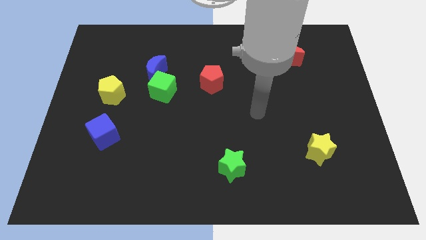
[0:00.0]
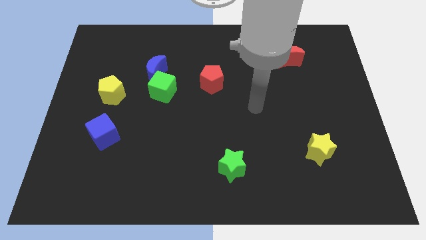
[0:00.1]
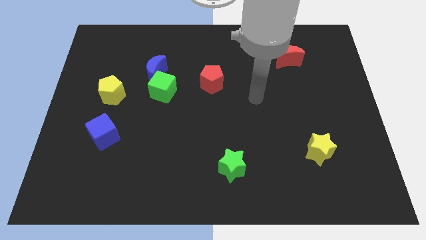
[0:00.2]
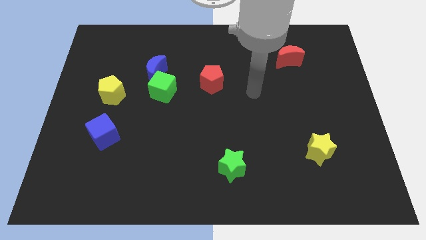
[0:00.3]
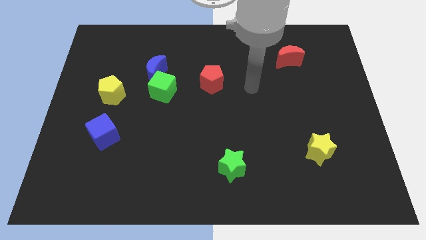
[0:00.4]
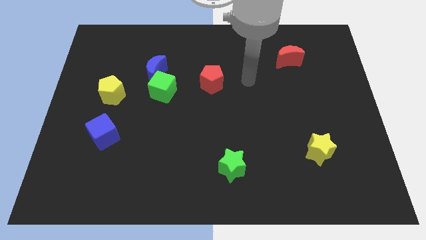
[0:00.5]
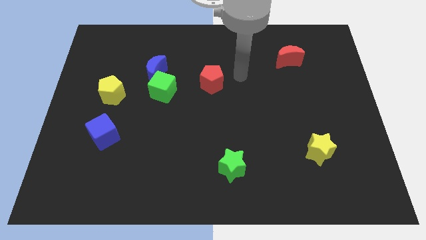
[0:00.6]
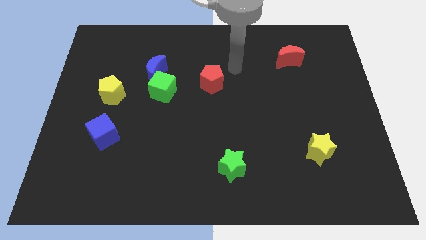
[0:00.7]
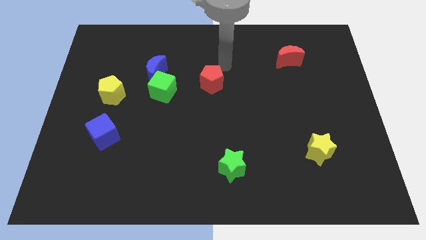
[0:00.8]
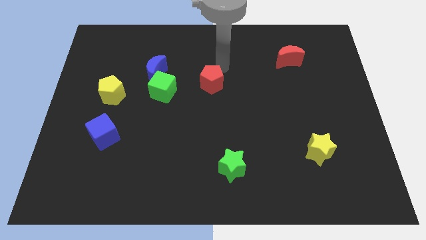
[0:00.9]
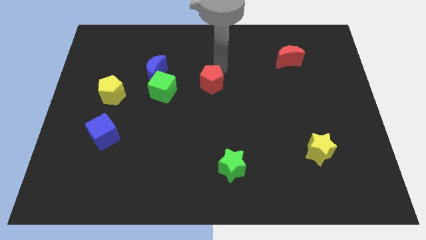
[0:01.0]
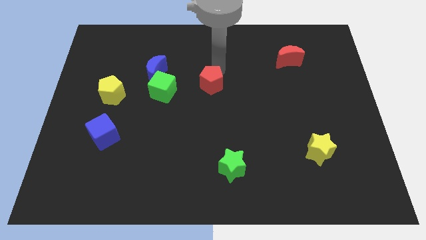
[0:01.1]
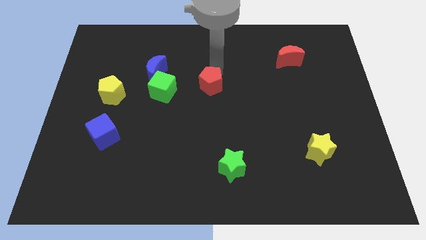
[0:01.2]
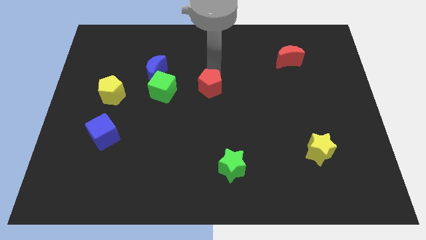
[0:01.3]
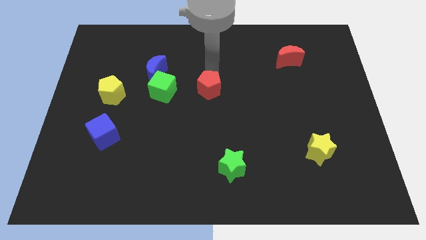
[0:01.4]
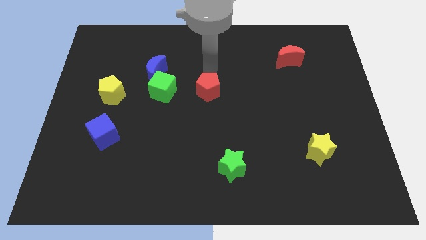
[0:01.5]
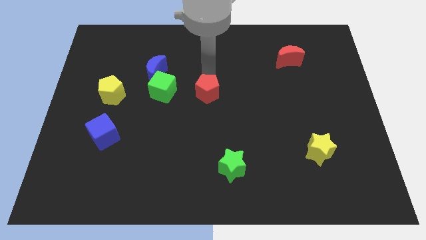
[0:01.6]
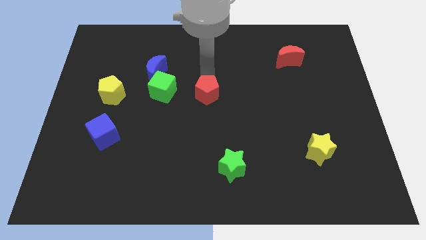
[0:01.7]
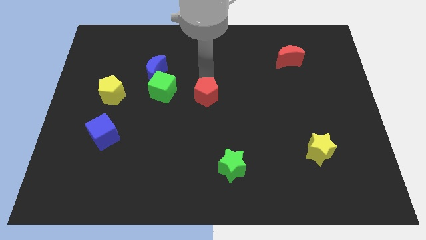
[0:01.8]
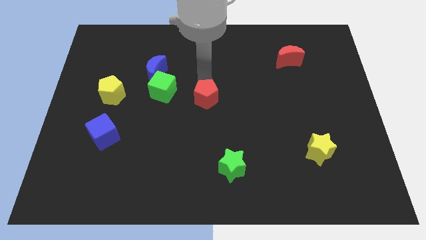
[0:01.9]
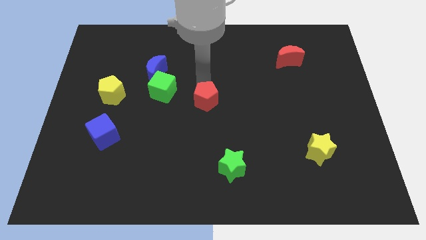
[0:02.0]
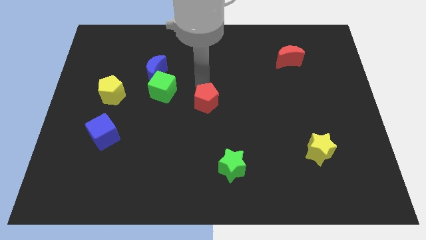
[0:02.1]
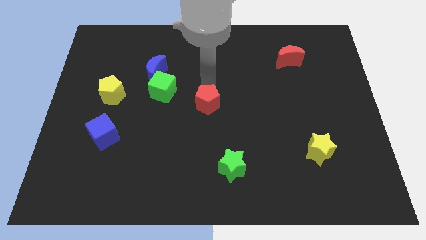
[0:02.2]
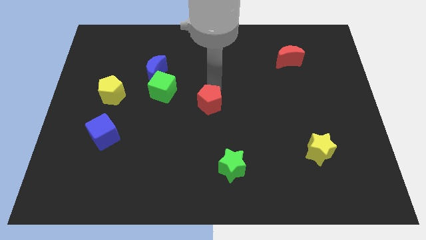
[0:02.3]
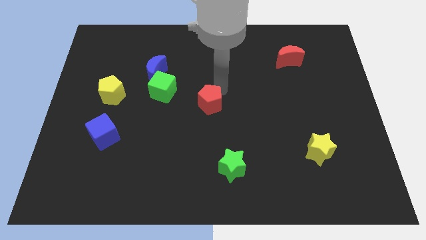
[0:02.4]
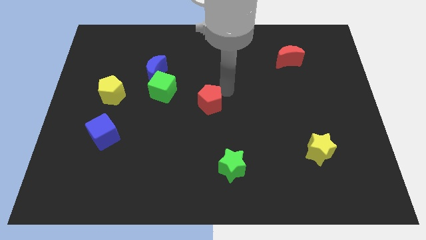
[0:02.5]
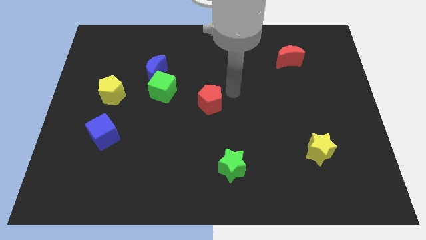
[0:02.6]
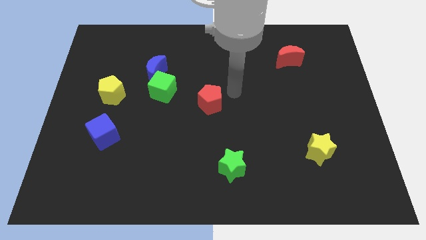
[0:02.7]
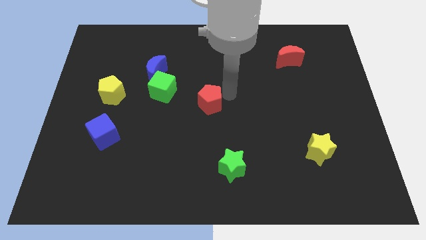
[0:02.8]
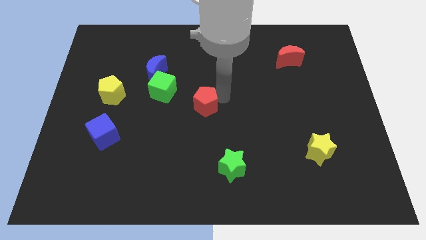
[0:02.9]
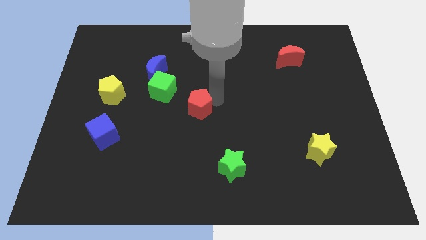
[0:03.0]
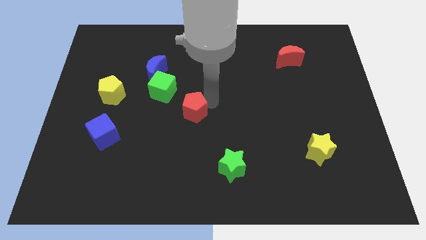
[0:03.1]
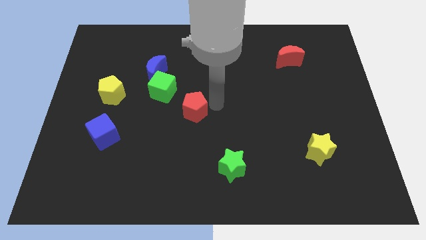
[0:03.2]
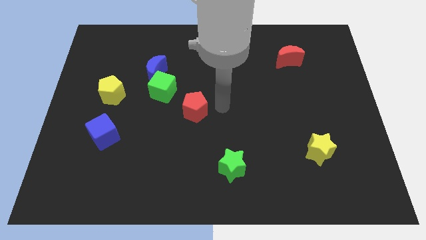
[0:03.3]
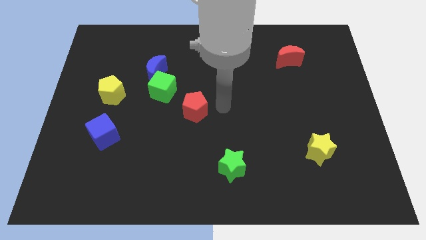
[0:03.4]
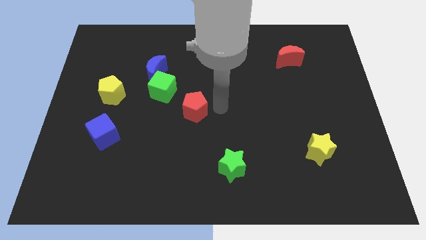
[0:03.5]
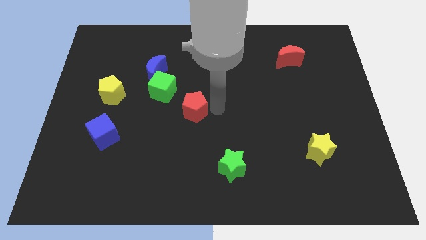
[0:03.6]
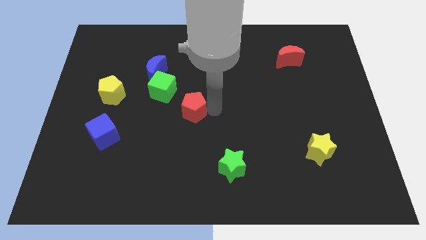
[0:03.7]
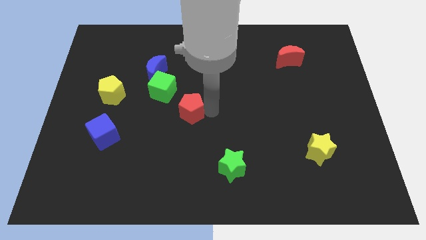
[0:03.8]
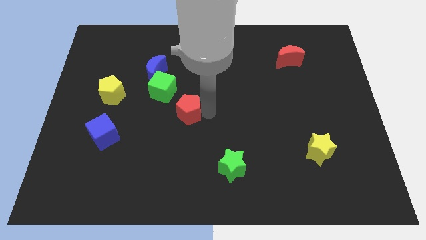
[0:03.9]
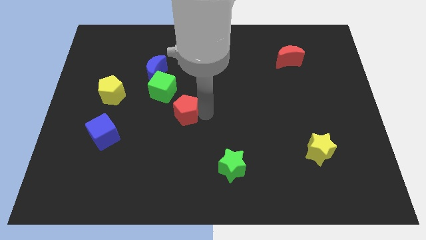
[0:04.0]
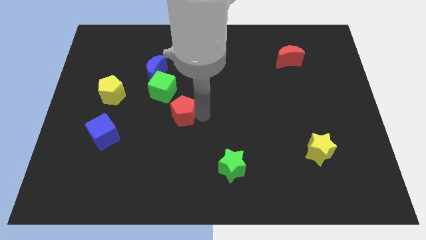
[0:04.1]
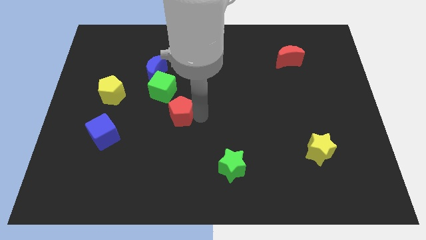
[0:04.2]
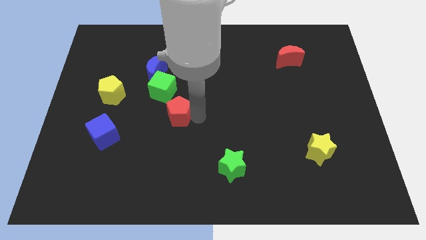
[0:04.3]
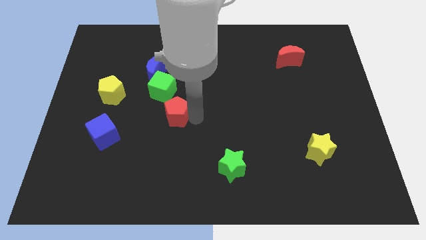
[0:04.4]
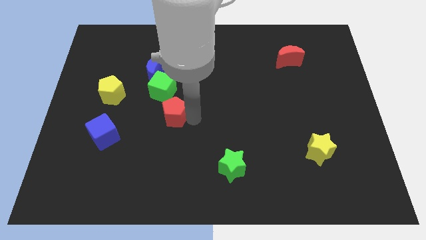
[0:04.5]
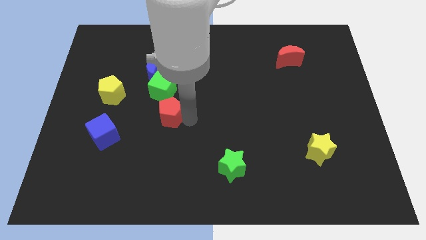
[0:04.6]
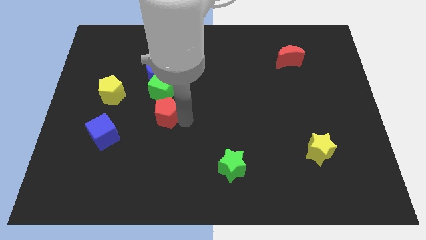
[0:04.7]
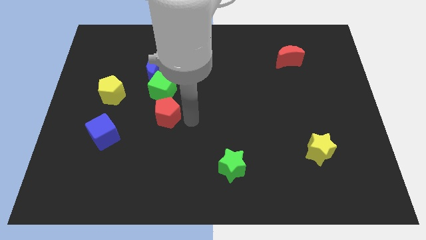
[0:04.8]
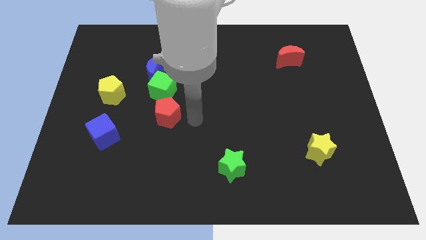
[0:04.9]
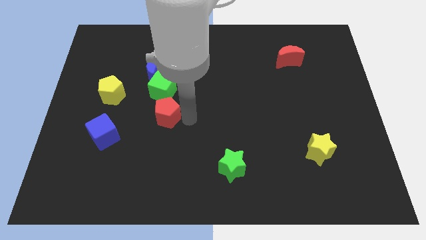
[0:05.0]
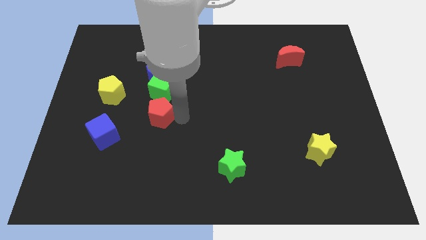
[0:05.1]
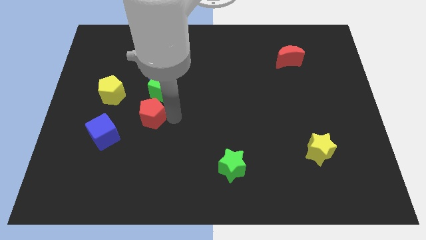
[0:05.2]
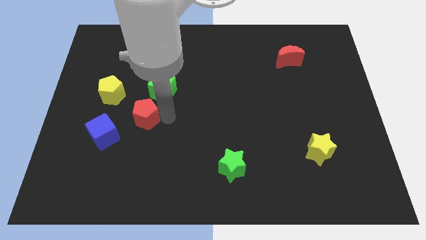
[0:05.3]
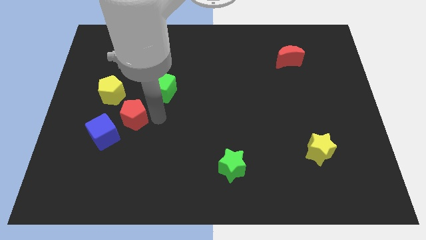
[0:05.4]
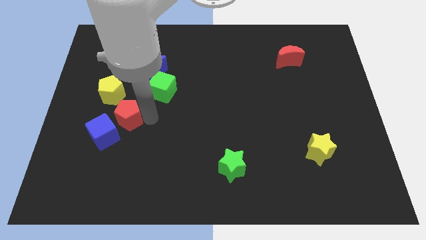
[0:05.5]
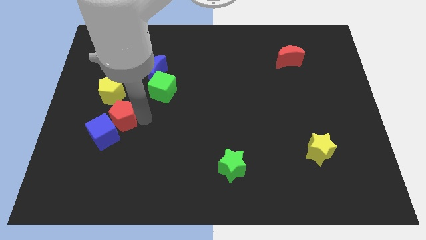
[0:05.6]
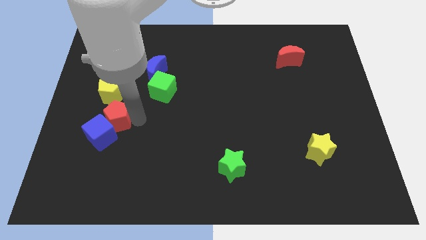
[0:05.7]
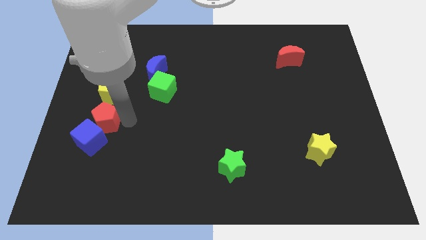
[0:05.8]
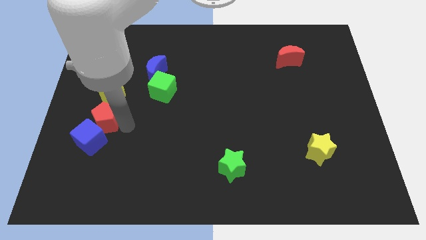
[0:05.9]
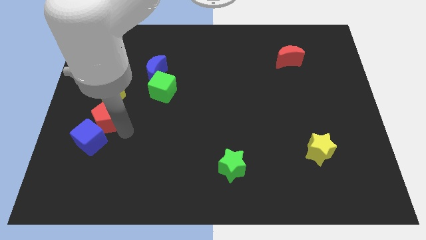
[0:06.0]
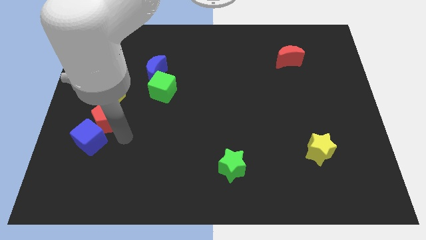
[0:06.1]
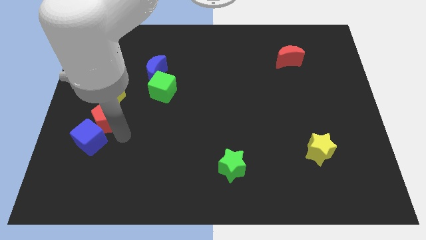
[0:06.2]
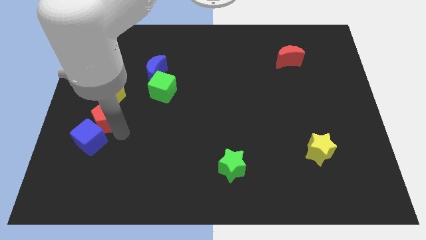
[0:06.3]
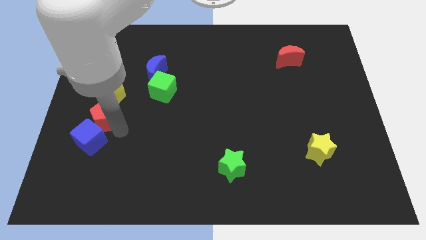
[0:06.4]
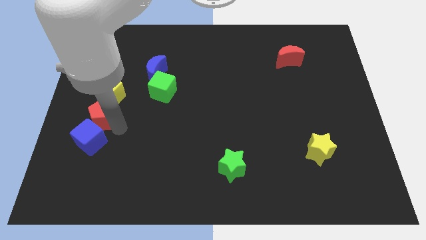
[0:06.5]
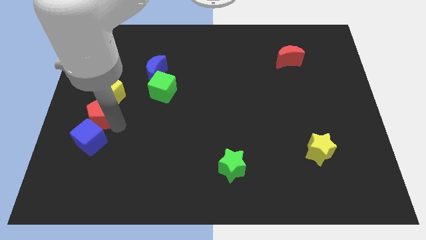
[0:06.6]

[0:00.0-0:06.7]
put the red pentagon to the center left
